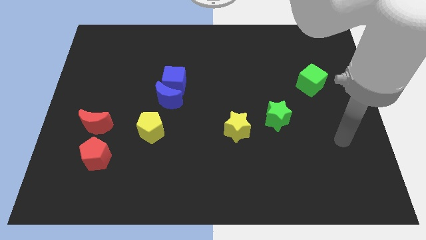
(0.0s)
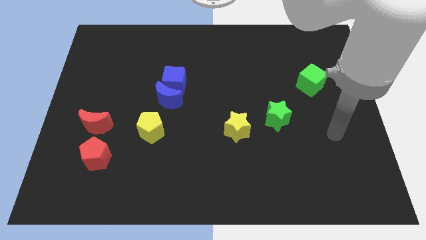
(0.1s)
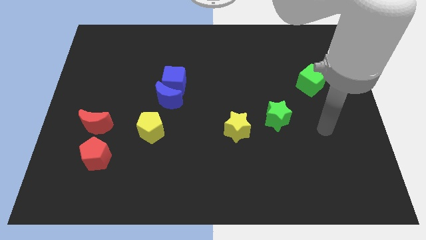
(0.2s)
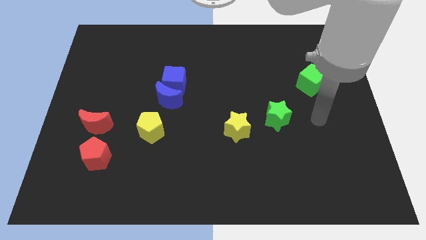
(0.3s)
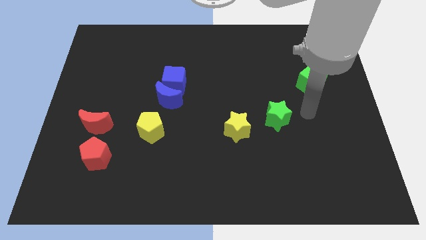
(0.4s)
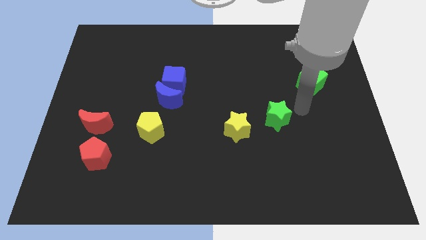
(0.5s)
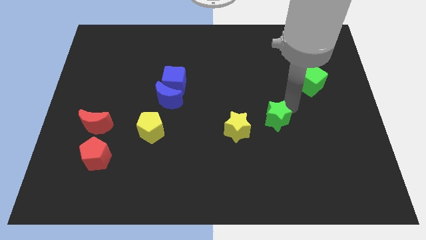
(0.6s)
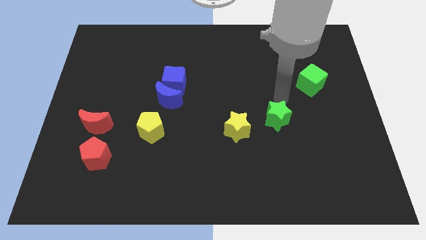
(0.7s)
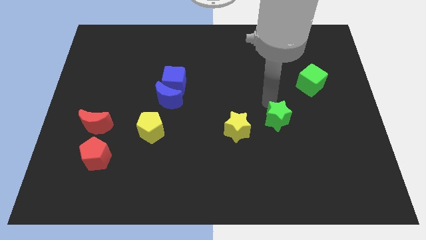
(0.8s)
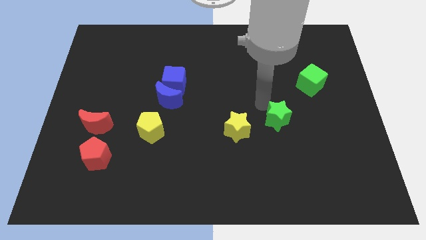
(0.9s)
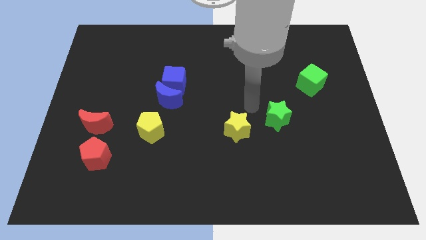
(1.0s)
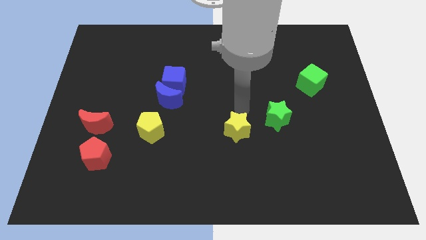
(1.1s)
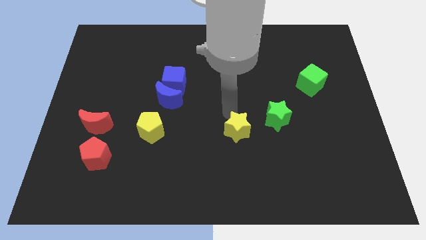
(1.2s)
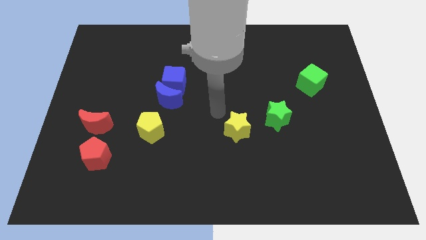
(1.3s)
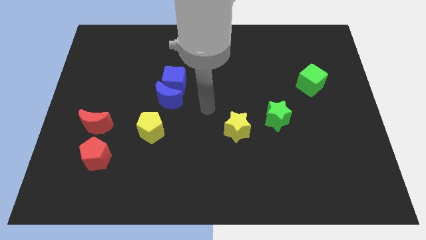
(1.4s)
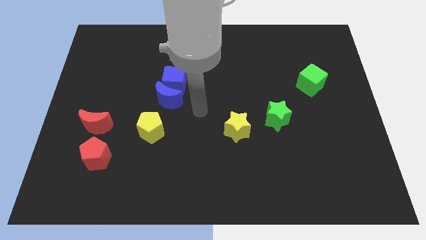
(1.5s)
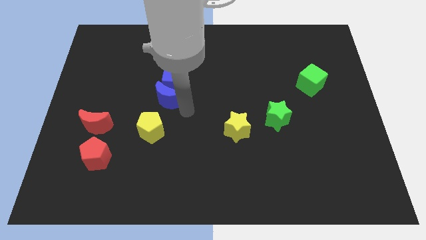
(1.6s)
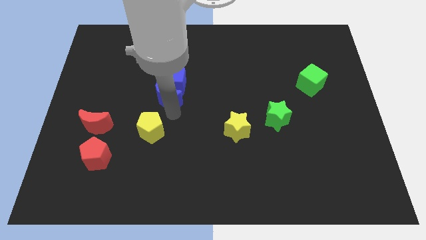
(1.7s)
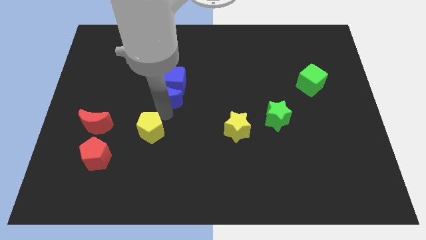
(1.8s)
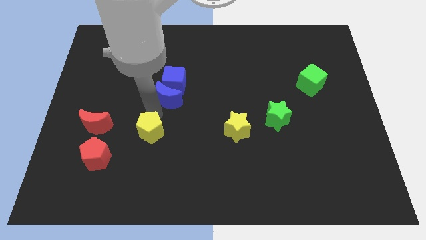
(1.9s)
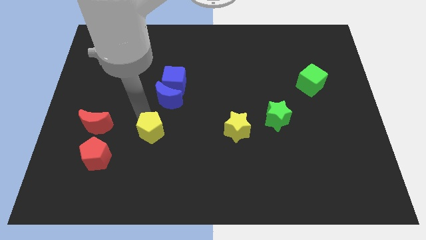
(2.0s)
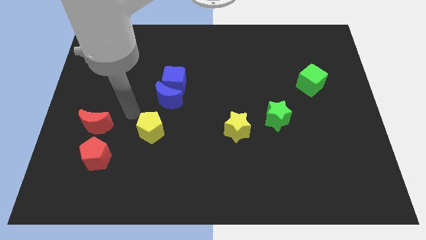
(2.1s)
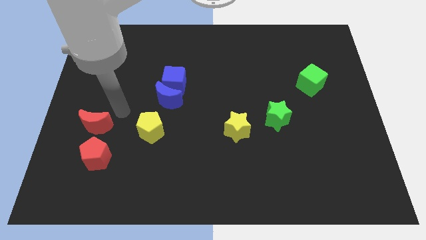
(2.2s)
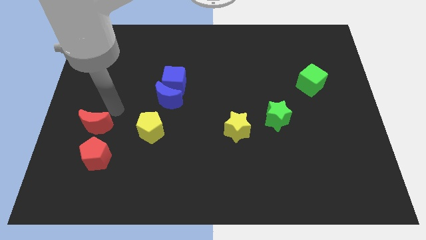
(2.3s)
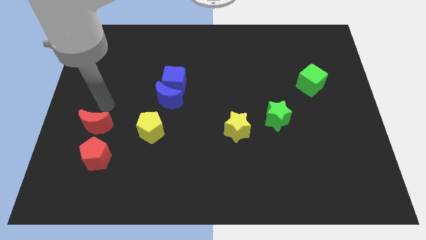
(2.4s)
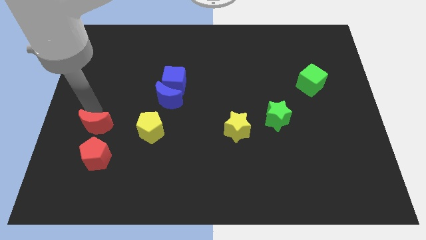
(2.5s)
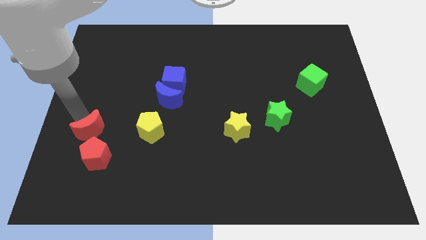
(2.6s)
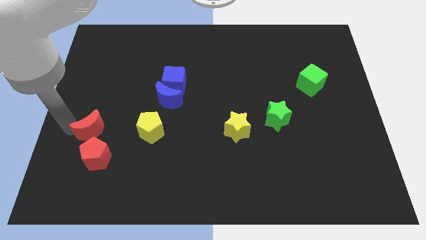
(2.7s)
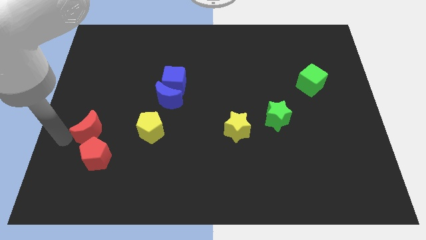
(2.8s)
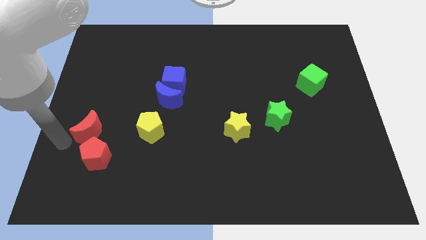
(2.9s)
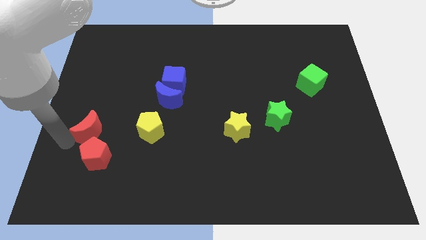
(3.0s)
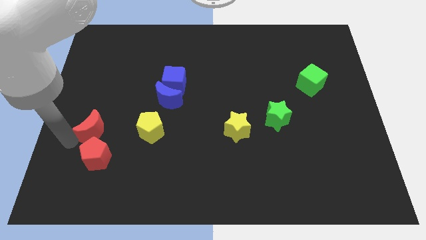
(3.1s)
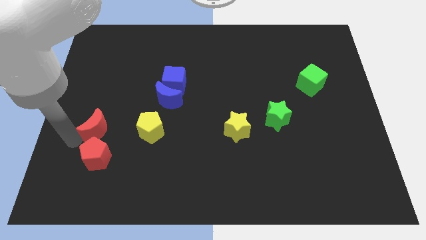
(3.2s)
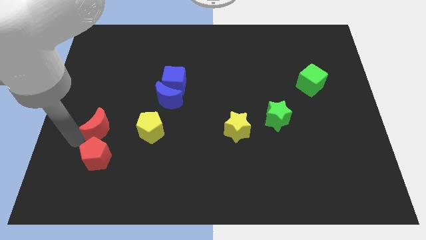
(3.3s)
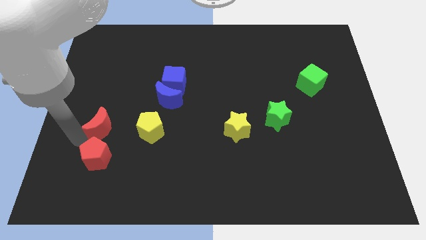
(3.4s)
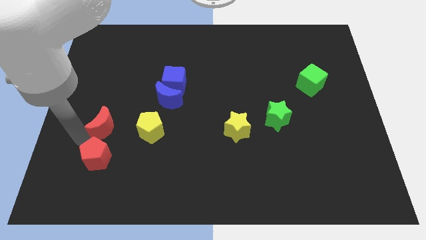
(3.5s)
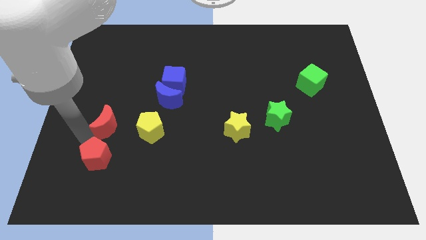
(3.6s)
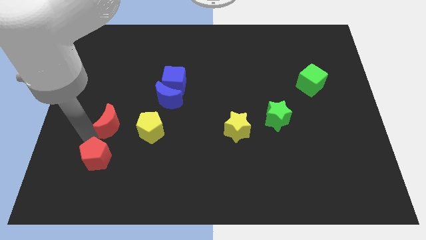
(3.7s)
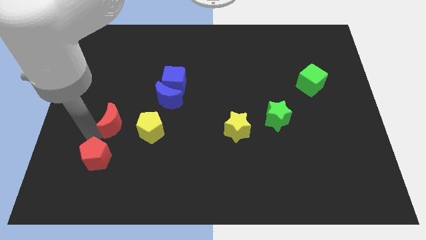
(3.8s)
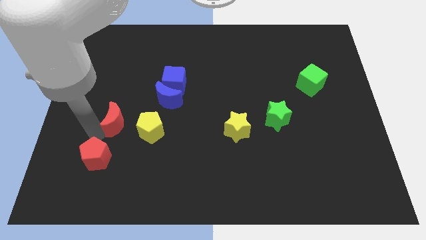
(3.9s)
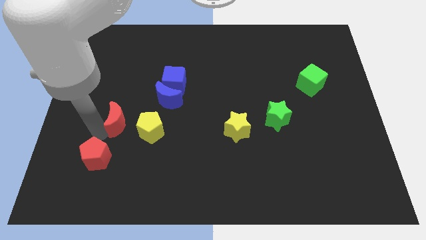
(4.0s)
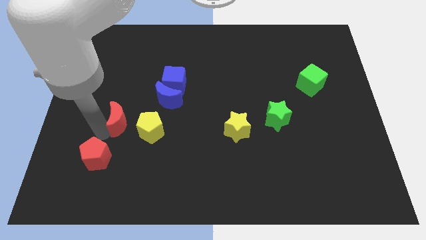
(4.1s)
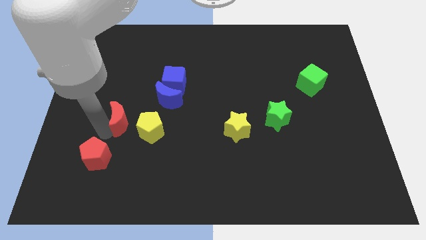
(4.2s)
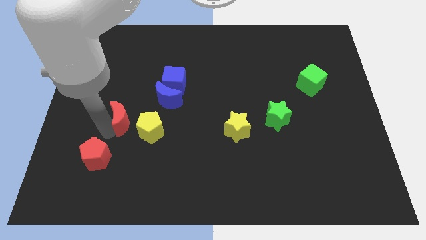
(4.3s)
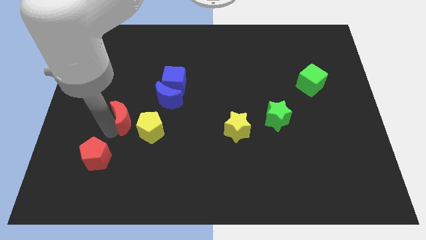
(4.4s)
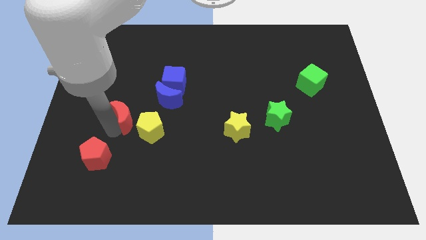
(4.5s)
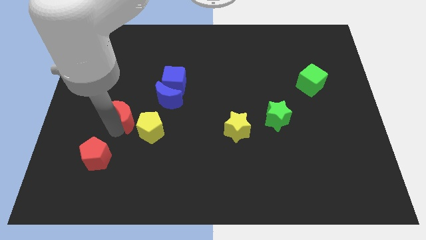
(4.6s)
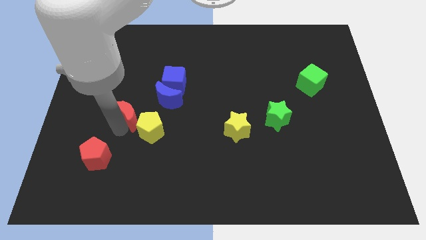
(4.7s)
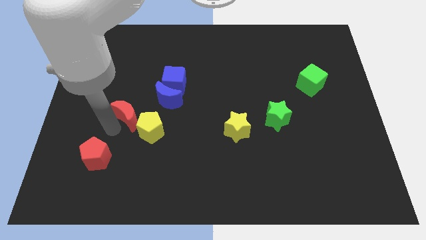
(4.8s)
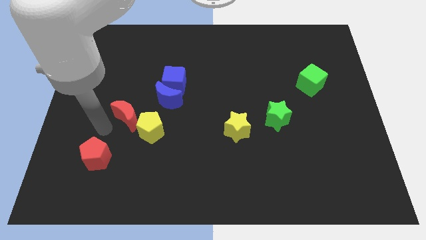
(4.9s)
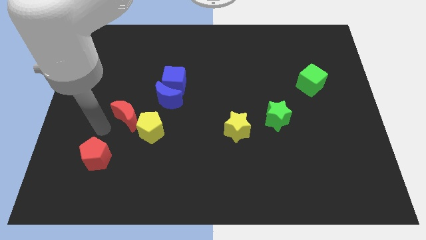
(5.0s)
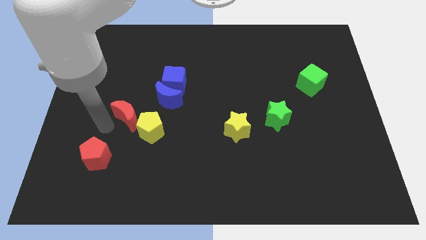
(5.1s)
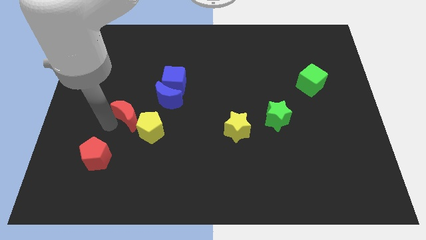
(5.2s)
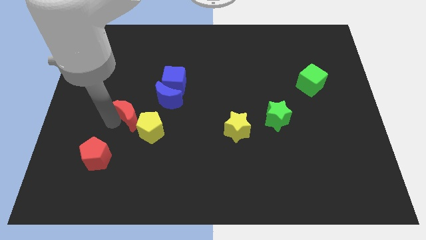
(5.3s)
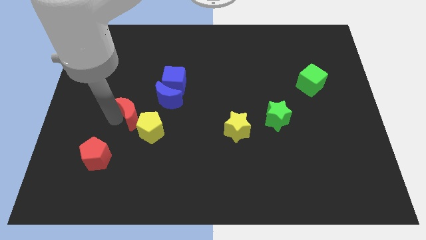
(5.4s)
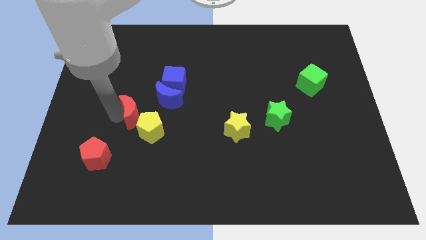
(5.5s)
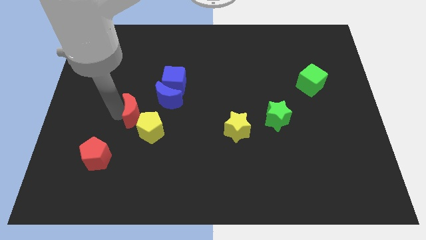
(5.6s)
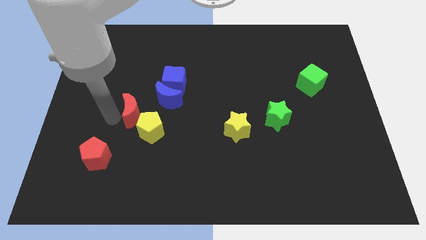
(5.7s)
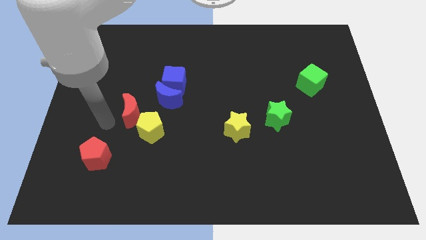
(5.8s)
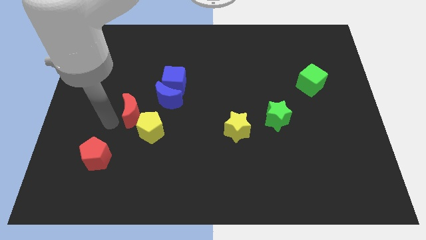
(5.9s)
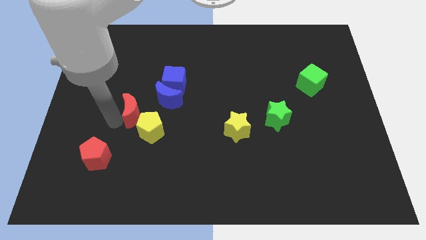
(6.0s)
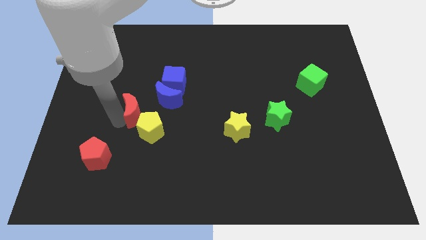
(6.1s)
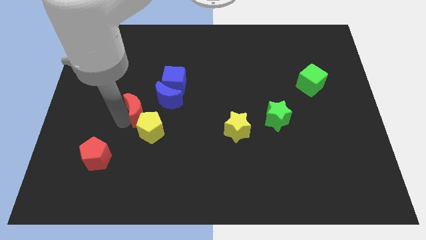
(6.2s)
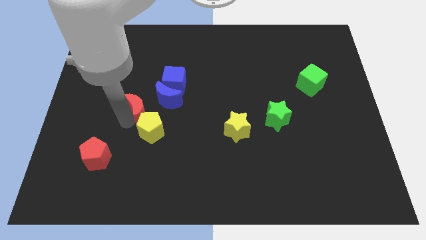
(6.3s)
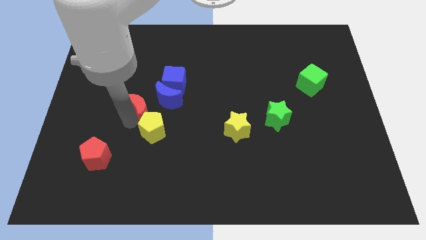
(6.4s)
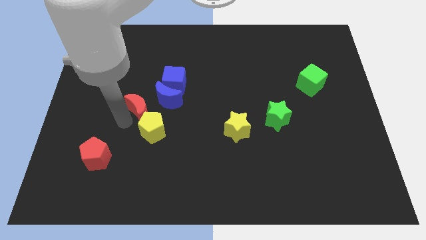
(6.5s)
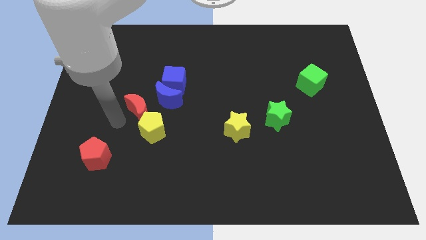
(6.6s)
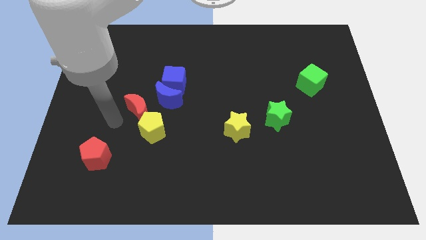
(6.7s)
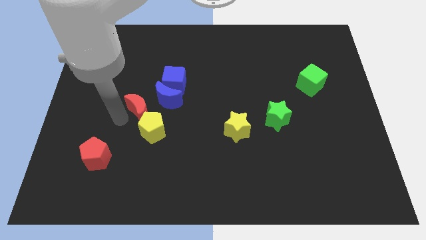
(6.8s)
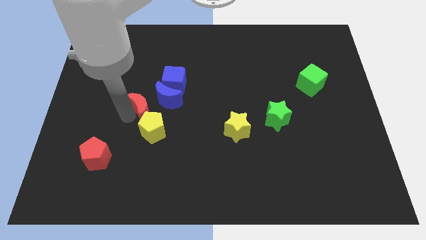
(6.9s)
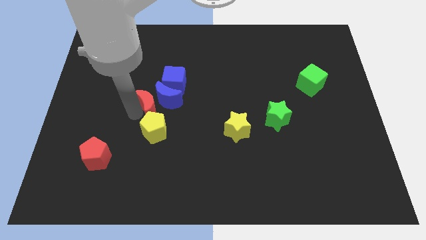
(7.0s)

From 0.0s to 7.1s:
push the red moon close to the blue moon
